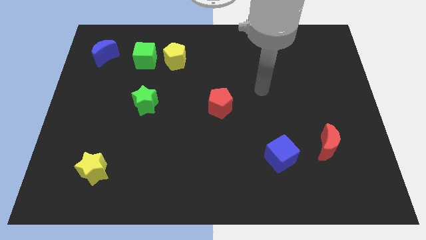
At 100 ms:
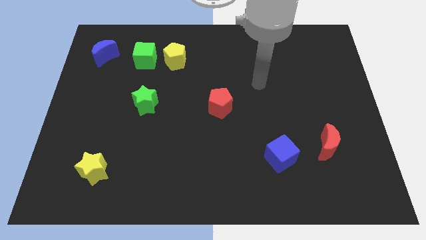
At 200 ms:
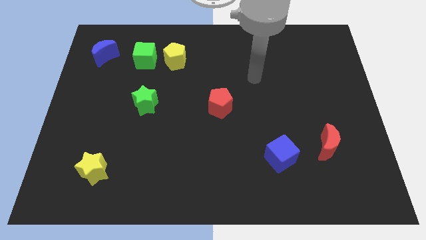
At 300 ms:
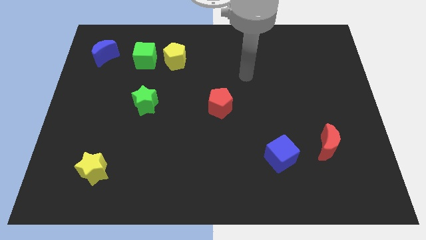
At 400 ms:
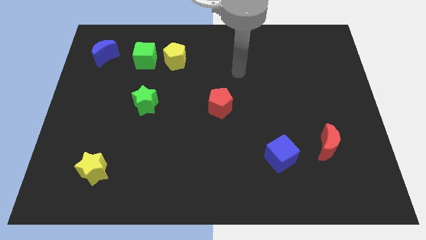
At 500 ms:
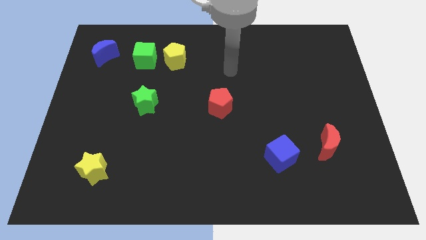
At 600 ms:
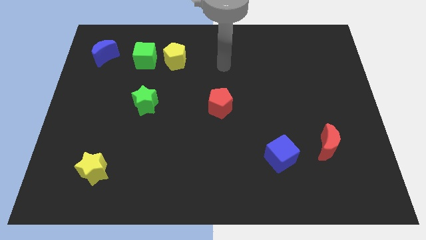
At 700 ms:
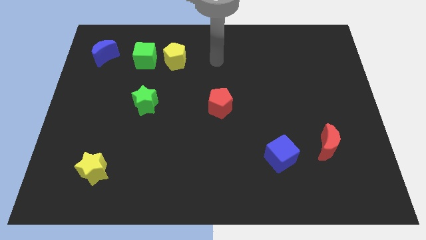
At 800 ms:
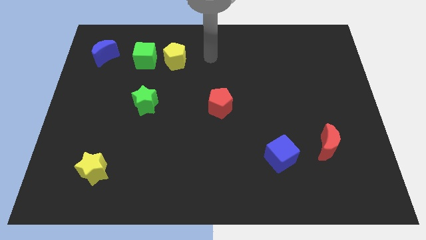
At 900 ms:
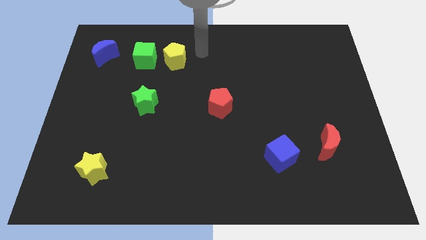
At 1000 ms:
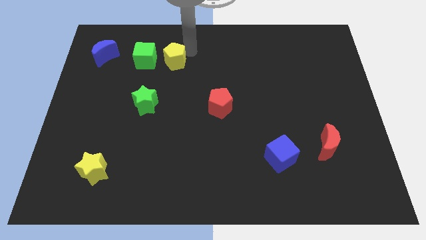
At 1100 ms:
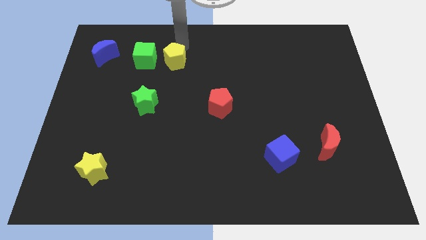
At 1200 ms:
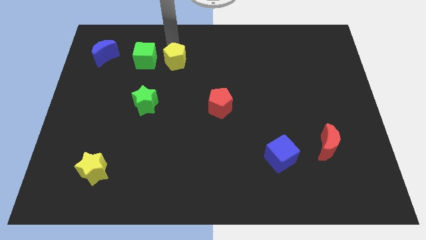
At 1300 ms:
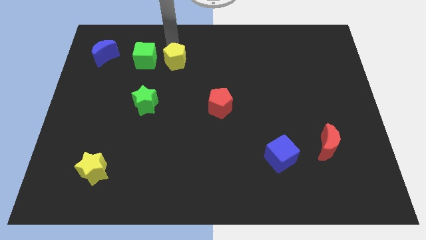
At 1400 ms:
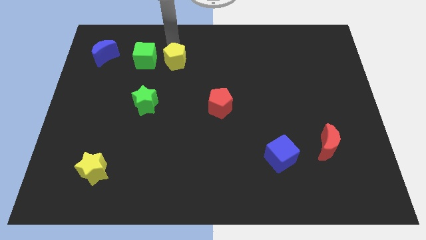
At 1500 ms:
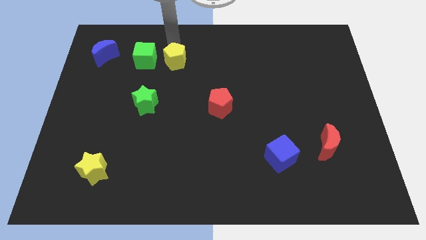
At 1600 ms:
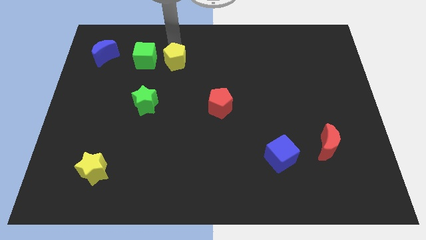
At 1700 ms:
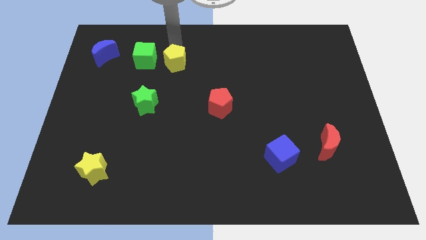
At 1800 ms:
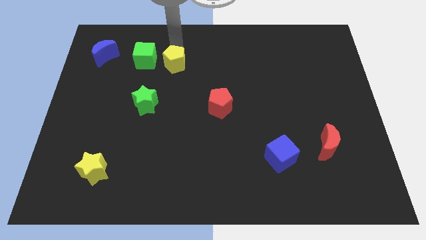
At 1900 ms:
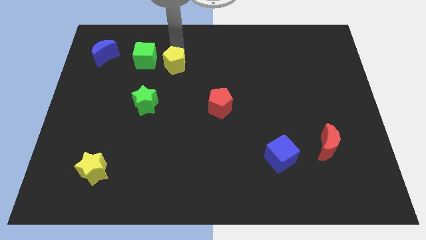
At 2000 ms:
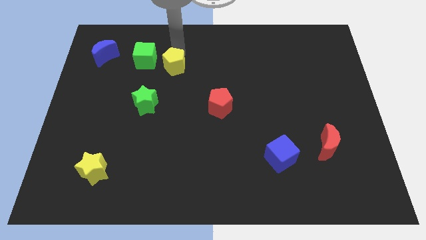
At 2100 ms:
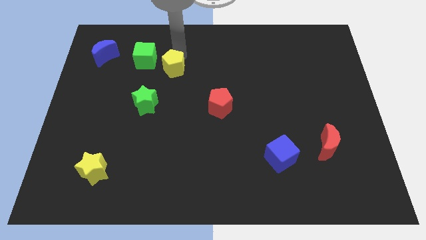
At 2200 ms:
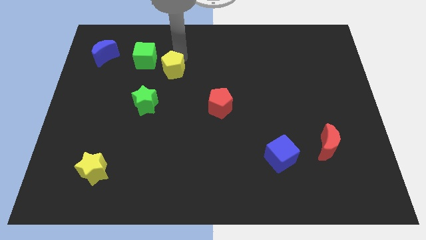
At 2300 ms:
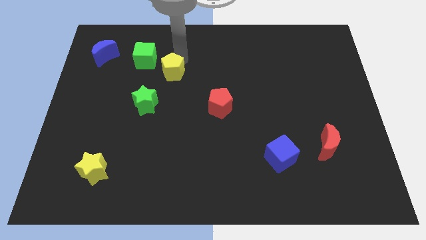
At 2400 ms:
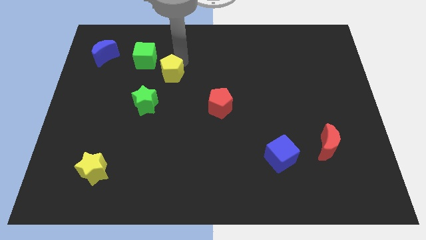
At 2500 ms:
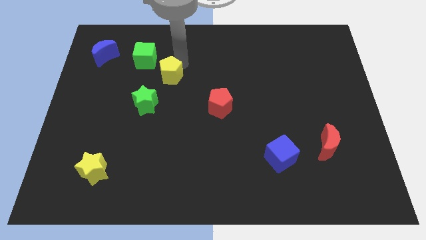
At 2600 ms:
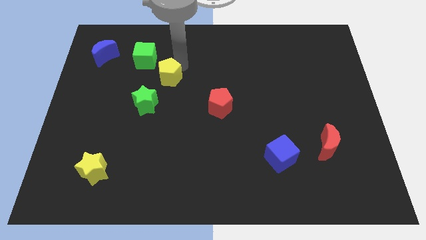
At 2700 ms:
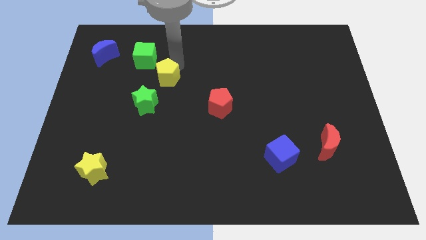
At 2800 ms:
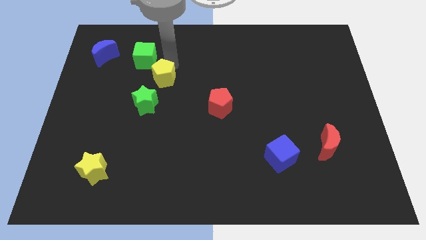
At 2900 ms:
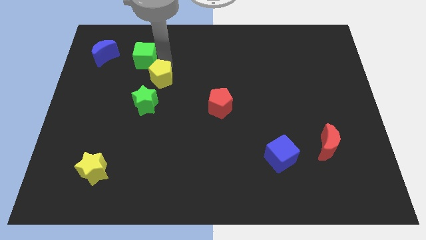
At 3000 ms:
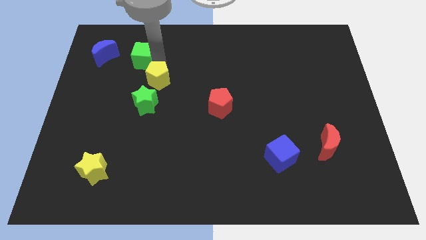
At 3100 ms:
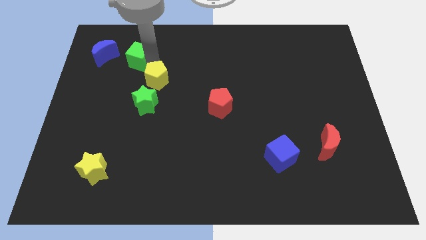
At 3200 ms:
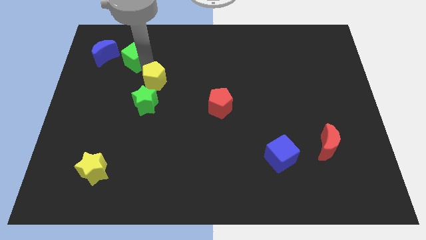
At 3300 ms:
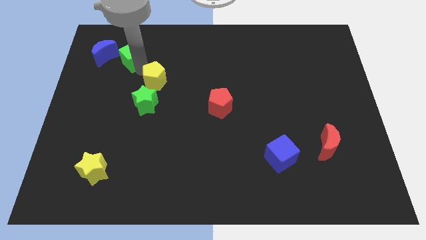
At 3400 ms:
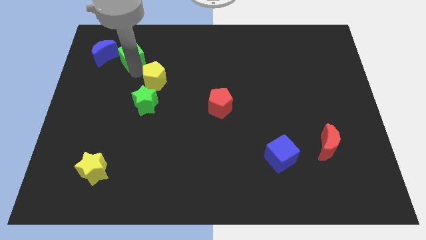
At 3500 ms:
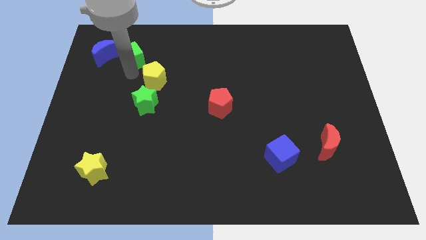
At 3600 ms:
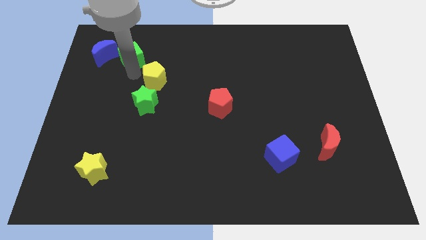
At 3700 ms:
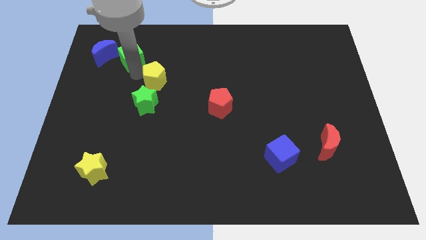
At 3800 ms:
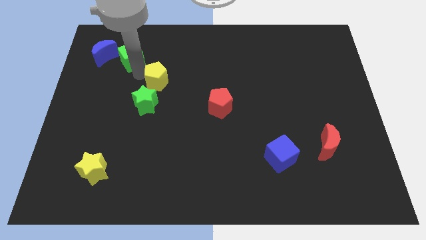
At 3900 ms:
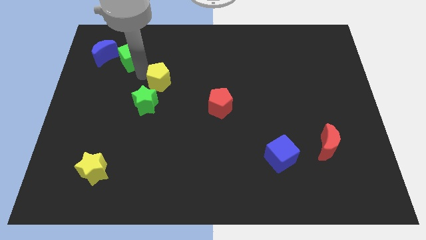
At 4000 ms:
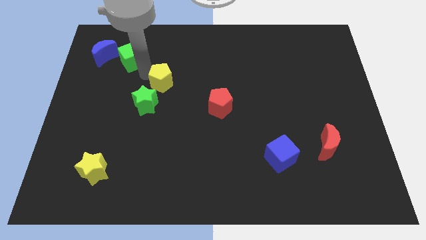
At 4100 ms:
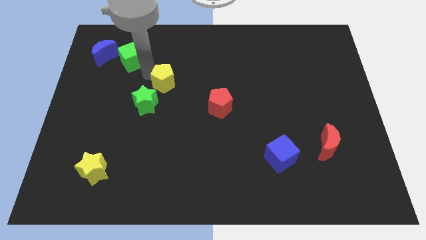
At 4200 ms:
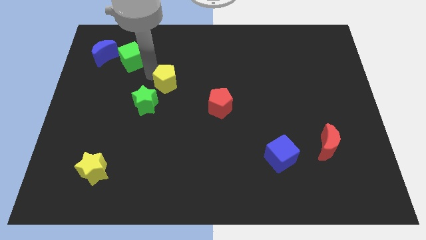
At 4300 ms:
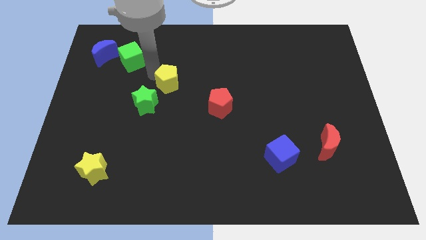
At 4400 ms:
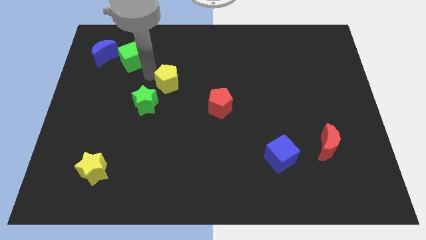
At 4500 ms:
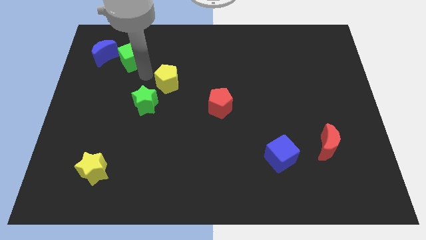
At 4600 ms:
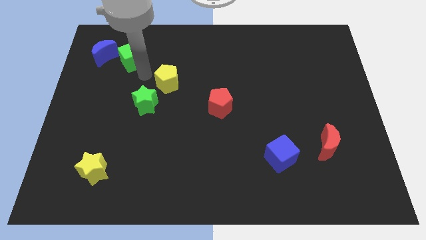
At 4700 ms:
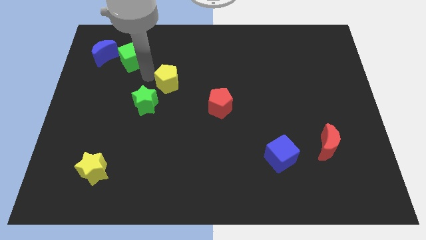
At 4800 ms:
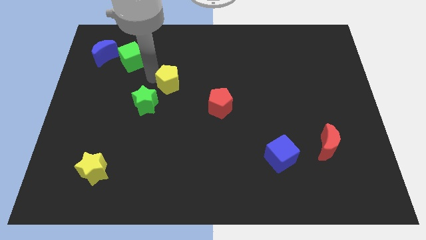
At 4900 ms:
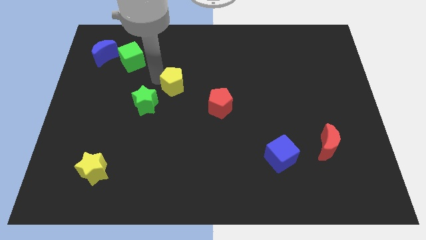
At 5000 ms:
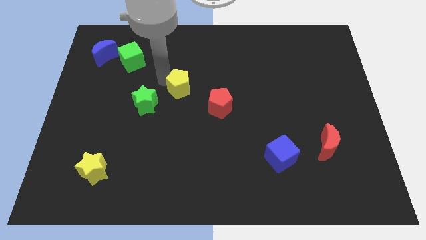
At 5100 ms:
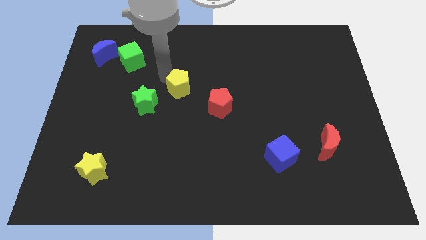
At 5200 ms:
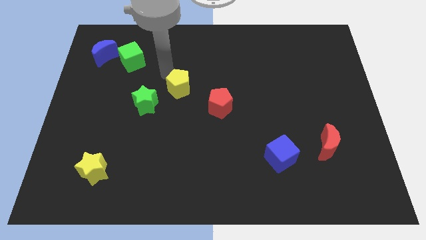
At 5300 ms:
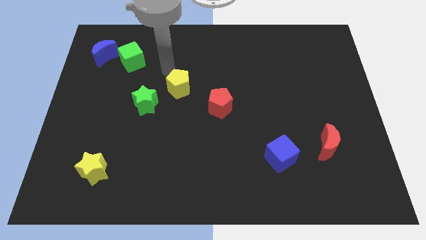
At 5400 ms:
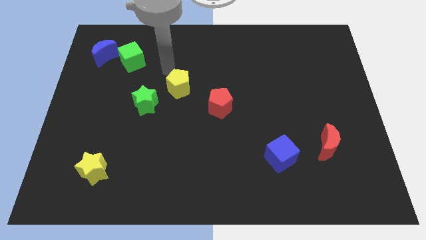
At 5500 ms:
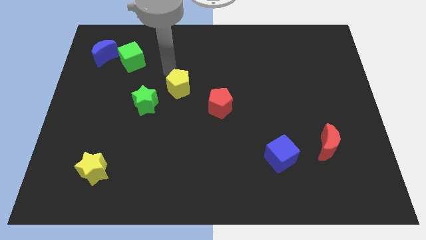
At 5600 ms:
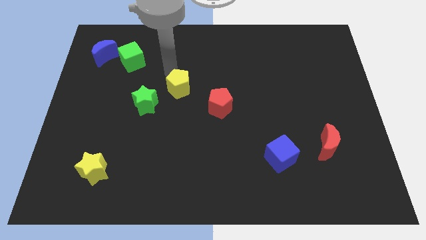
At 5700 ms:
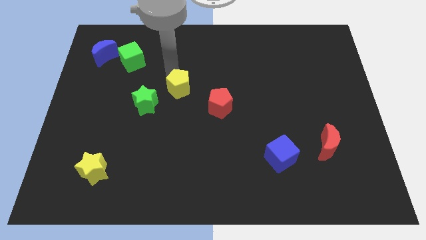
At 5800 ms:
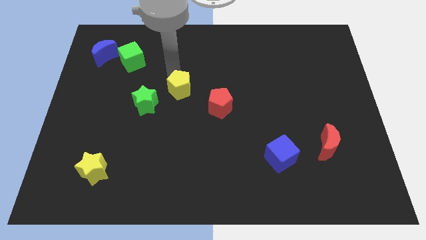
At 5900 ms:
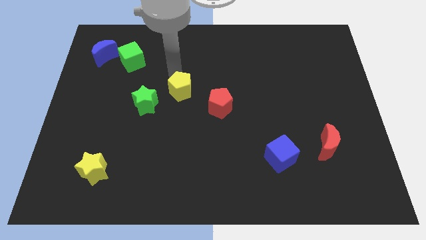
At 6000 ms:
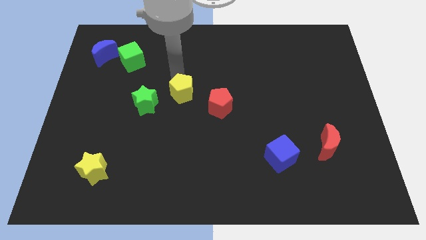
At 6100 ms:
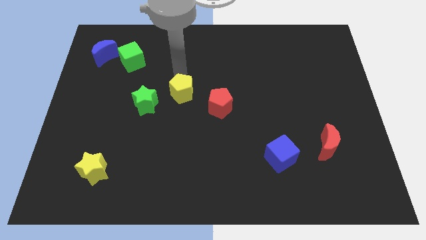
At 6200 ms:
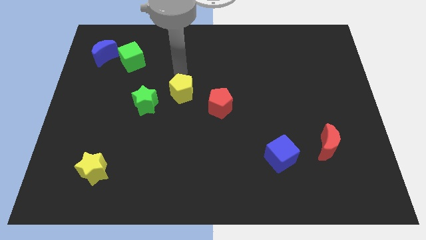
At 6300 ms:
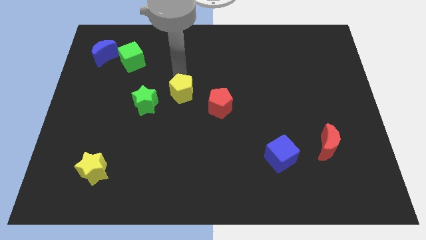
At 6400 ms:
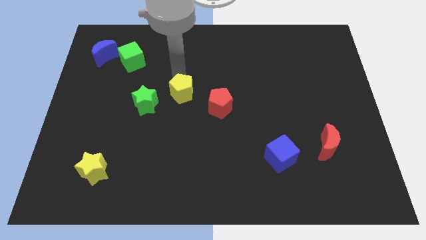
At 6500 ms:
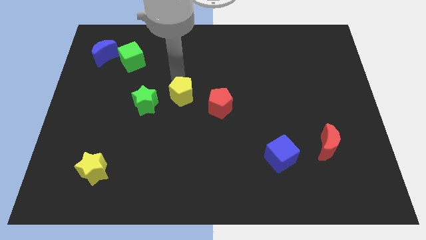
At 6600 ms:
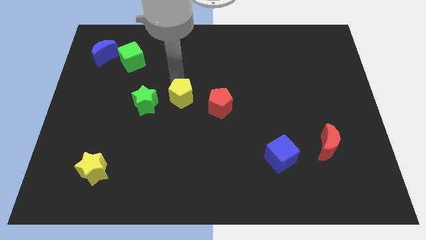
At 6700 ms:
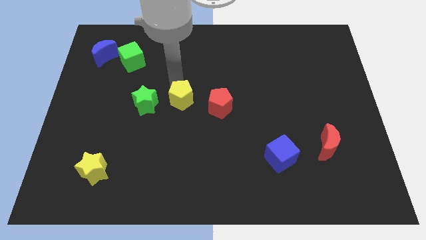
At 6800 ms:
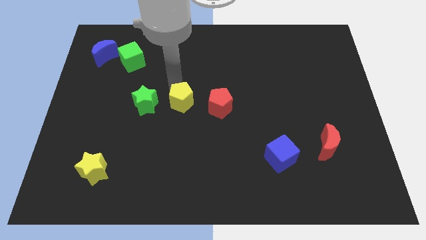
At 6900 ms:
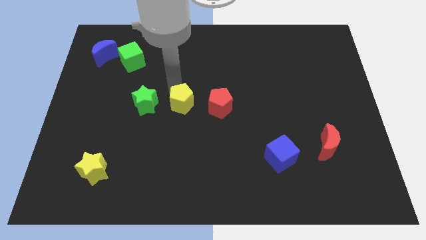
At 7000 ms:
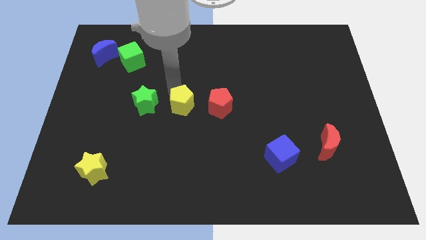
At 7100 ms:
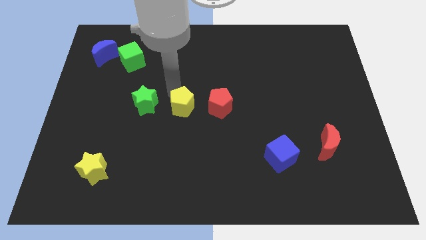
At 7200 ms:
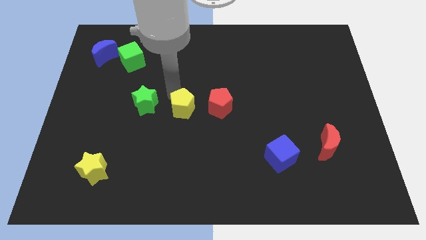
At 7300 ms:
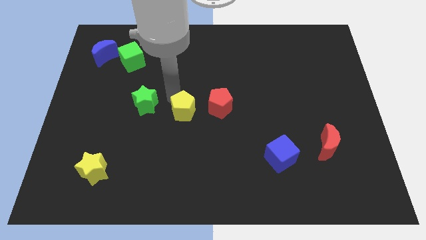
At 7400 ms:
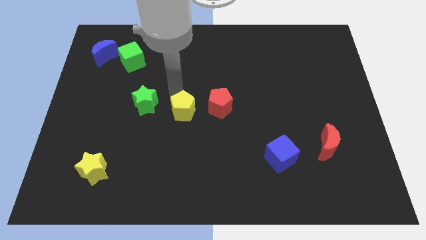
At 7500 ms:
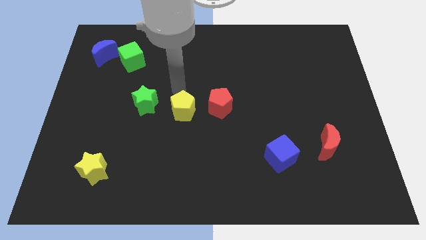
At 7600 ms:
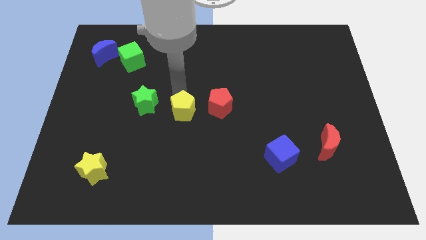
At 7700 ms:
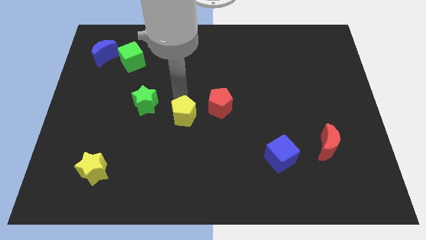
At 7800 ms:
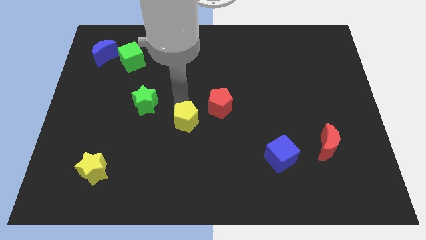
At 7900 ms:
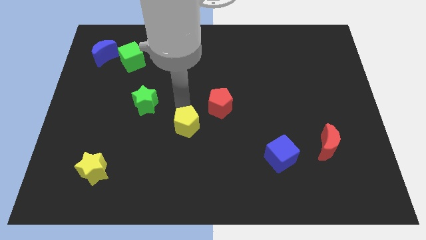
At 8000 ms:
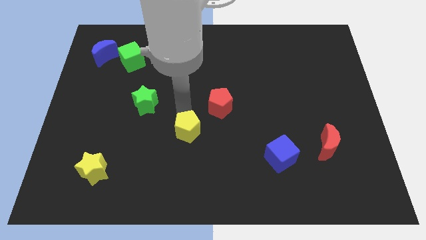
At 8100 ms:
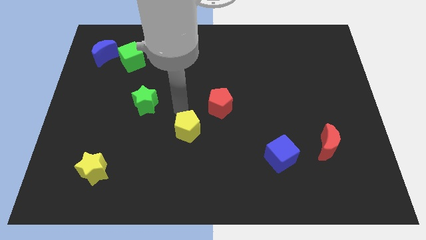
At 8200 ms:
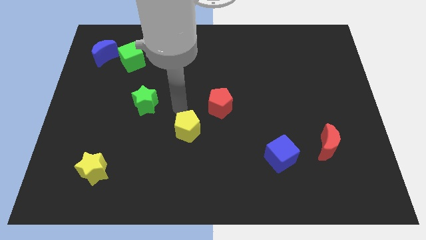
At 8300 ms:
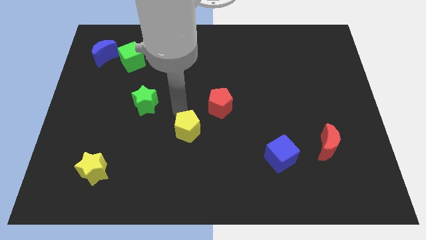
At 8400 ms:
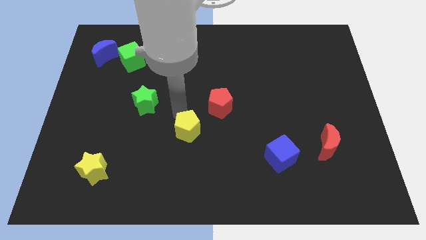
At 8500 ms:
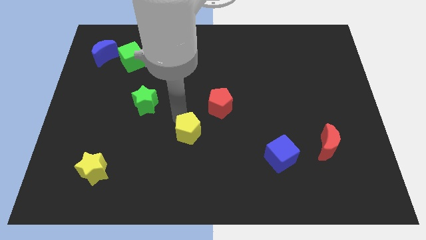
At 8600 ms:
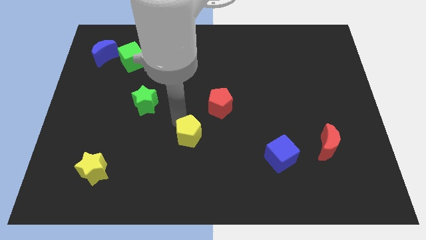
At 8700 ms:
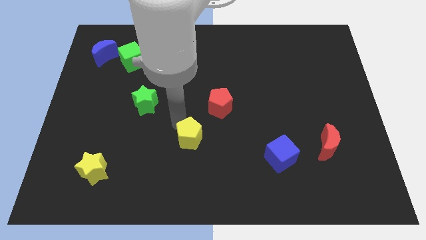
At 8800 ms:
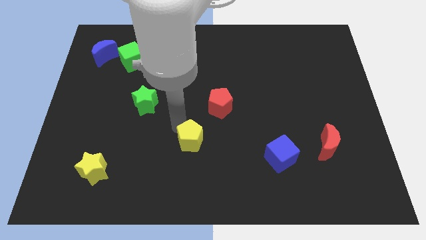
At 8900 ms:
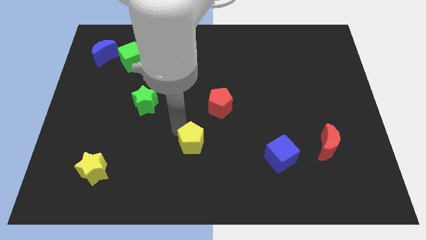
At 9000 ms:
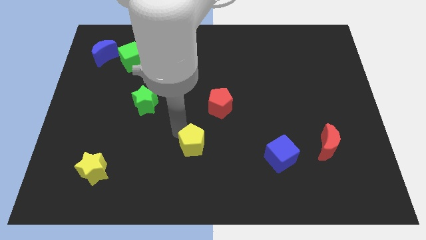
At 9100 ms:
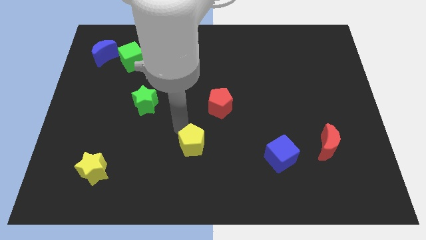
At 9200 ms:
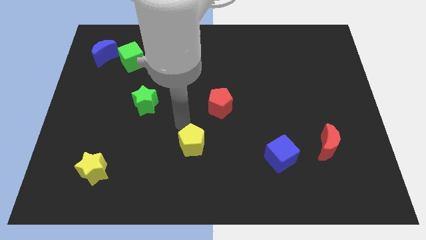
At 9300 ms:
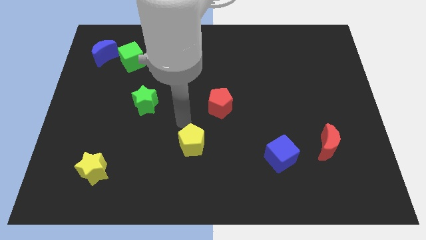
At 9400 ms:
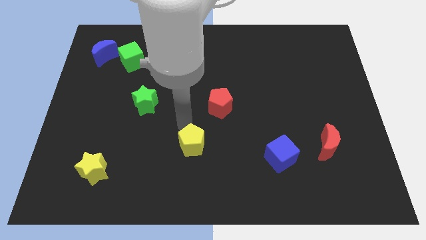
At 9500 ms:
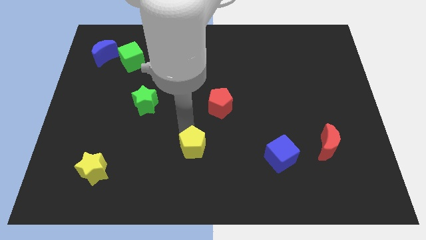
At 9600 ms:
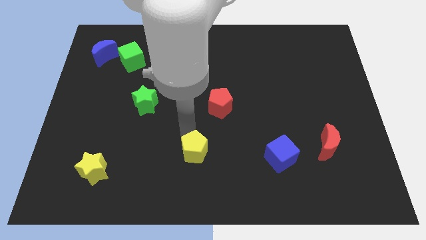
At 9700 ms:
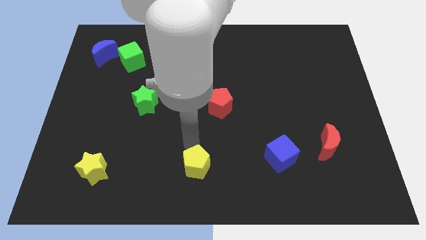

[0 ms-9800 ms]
push the yellow pentagon to the bottom side
